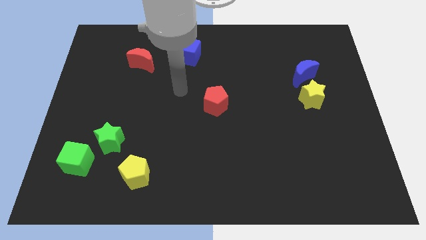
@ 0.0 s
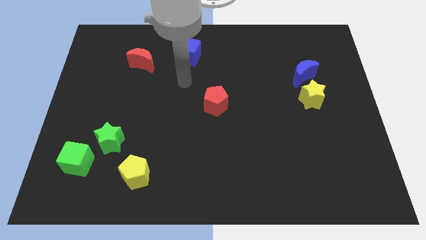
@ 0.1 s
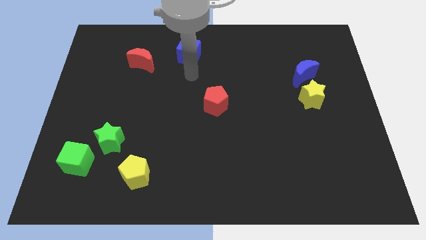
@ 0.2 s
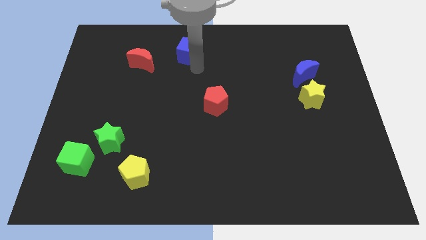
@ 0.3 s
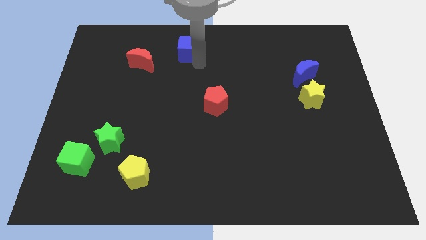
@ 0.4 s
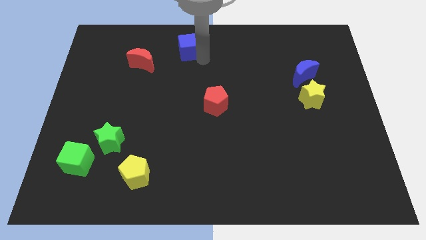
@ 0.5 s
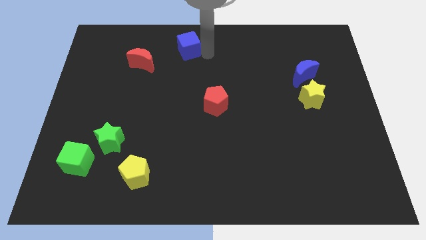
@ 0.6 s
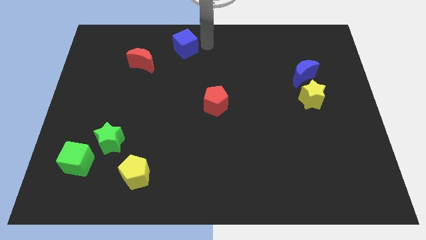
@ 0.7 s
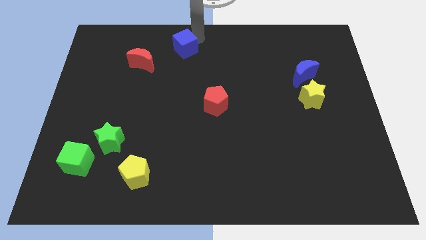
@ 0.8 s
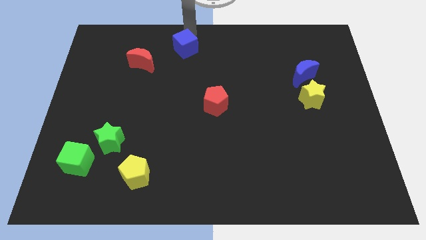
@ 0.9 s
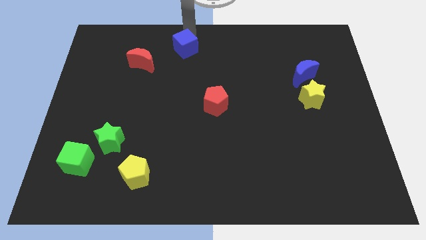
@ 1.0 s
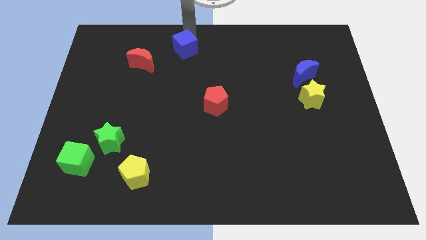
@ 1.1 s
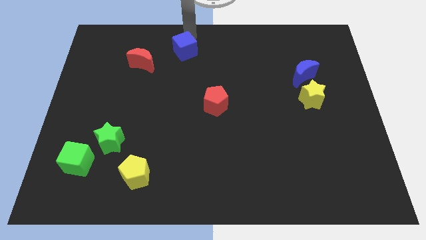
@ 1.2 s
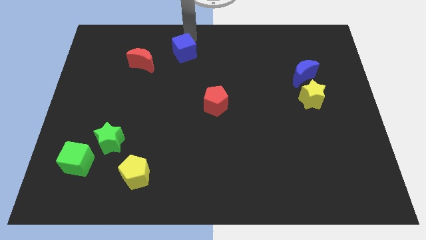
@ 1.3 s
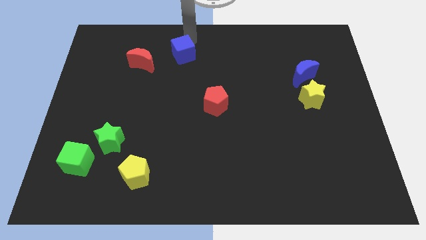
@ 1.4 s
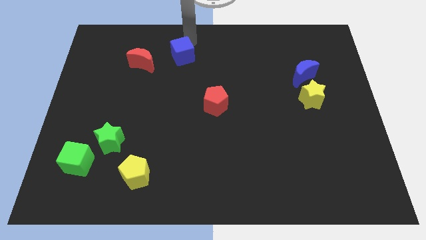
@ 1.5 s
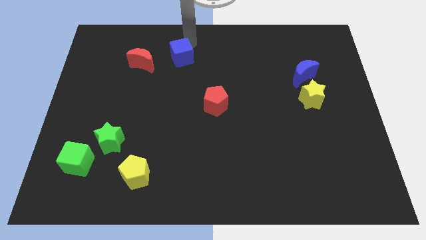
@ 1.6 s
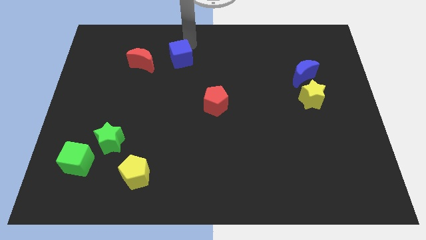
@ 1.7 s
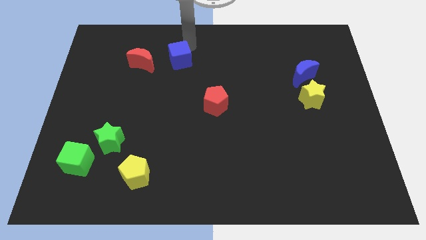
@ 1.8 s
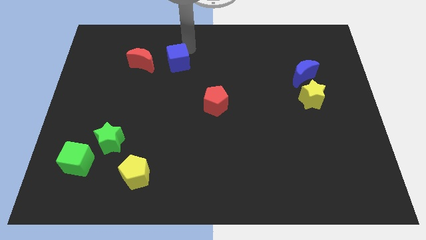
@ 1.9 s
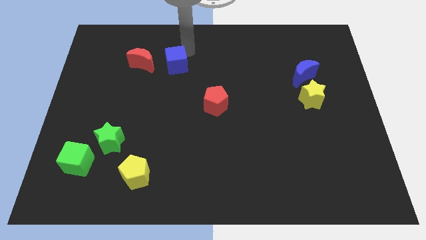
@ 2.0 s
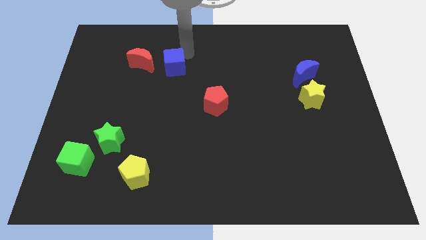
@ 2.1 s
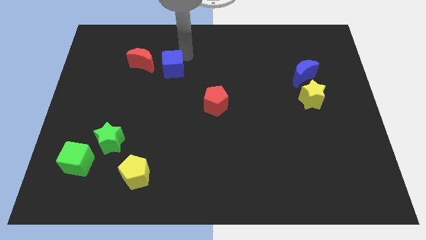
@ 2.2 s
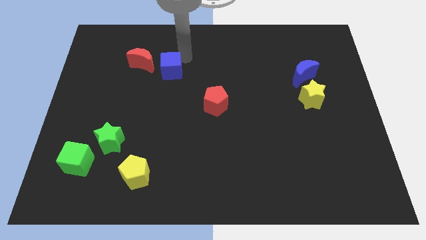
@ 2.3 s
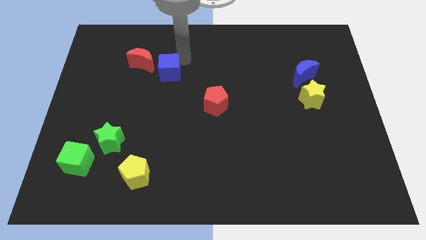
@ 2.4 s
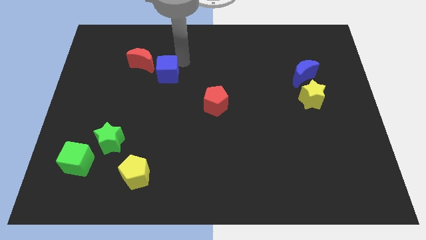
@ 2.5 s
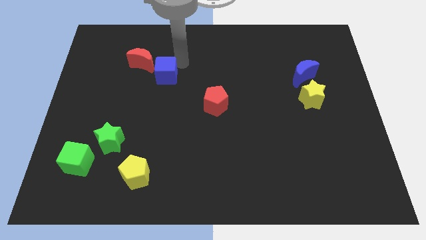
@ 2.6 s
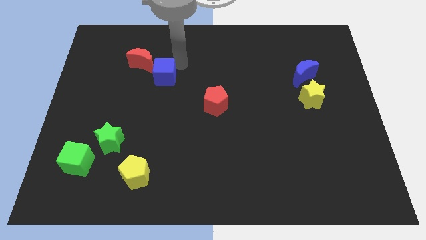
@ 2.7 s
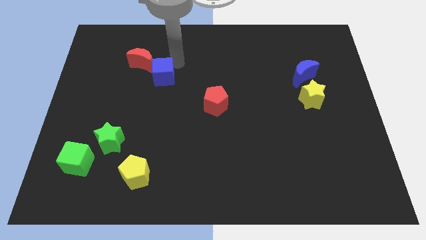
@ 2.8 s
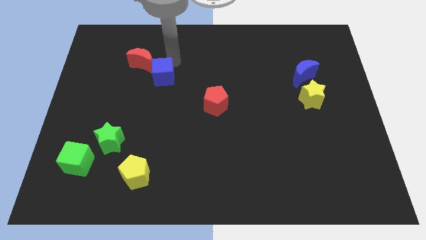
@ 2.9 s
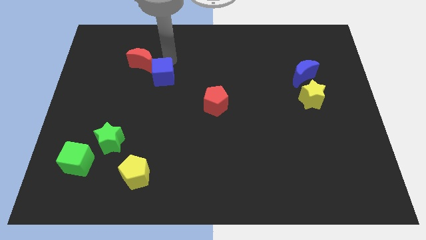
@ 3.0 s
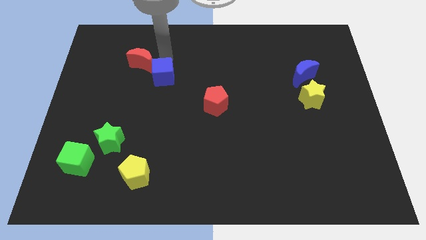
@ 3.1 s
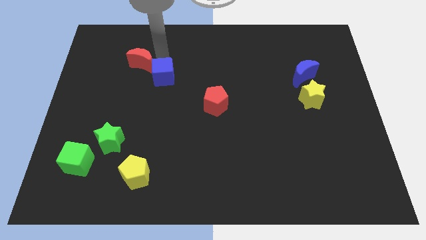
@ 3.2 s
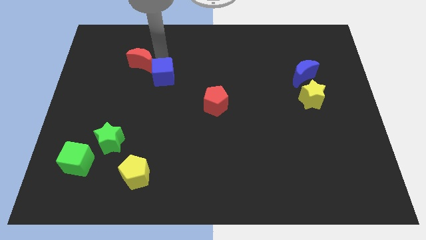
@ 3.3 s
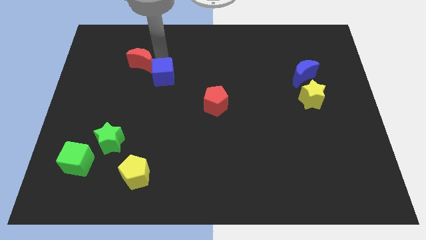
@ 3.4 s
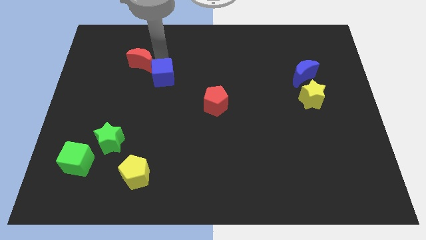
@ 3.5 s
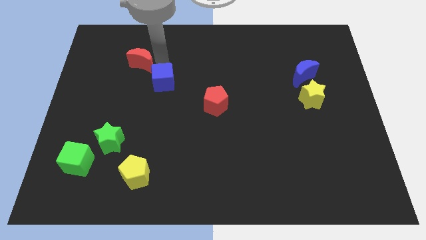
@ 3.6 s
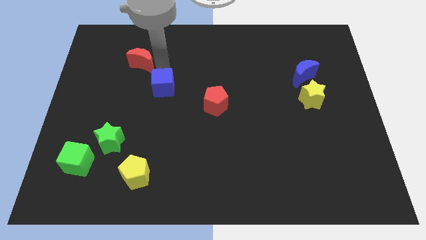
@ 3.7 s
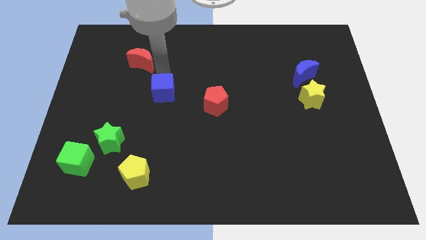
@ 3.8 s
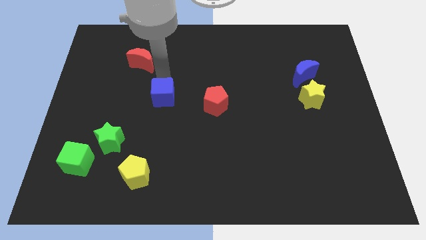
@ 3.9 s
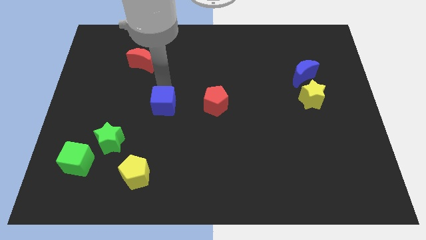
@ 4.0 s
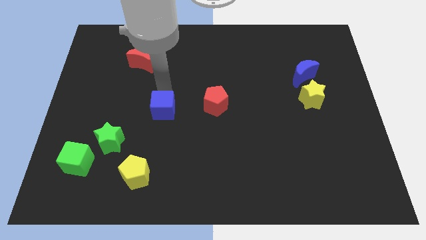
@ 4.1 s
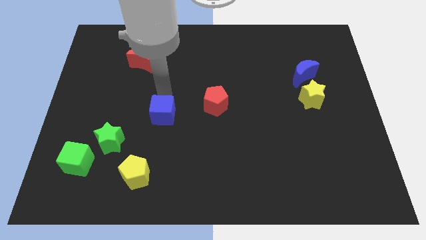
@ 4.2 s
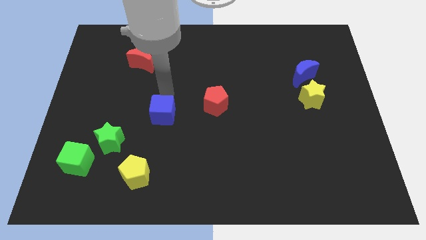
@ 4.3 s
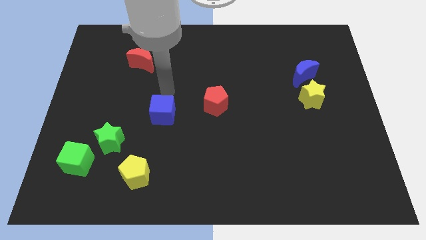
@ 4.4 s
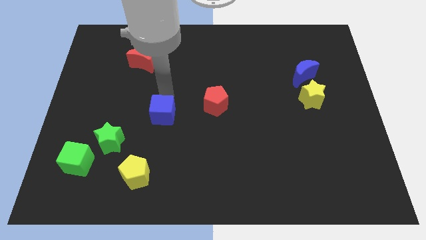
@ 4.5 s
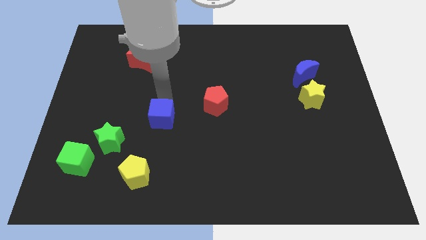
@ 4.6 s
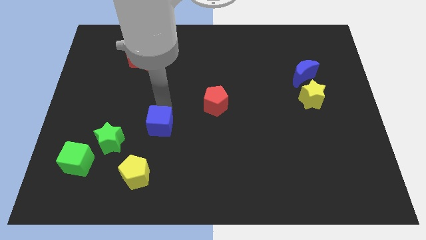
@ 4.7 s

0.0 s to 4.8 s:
slide the blue cube right of the green star

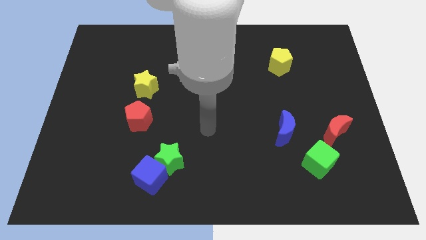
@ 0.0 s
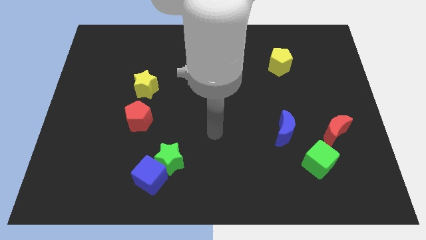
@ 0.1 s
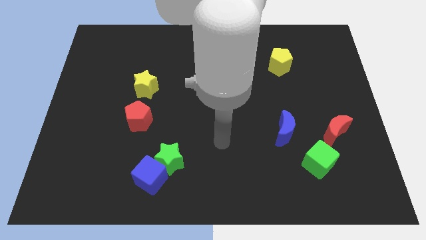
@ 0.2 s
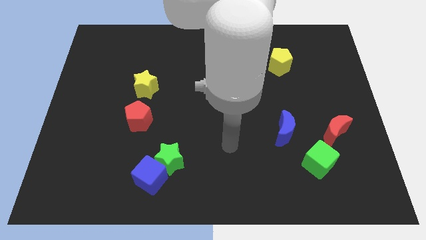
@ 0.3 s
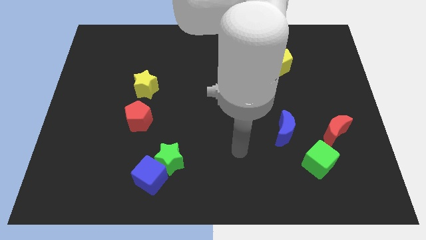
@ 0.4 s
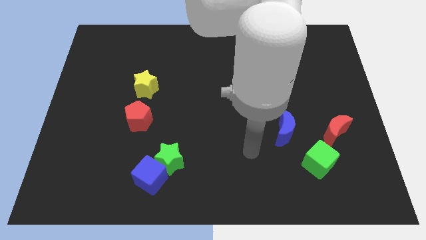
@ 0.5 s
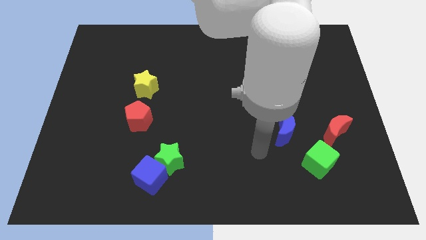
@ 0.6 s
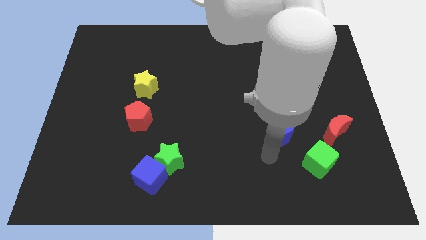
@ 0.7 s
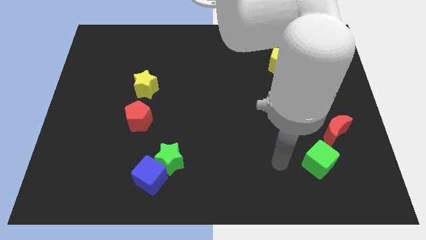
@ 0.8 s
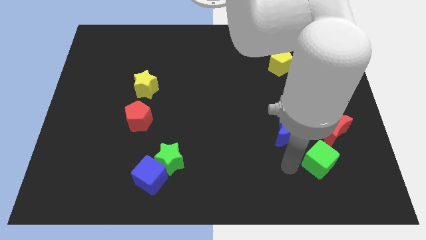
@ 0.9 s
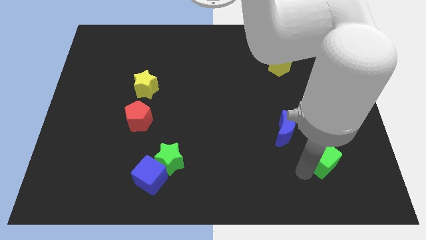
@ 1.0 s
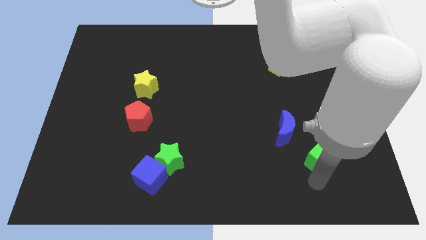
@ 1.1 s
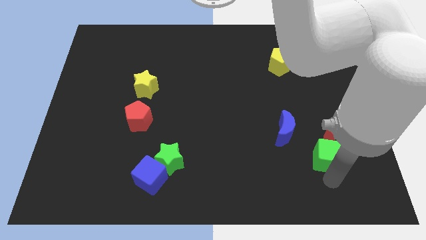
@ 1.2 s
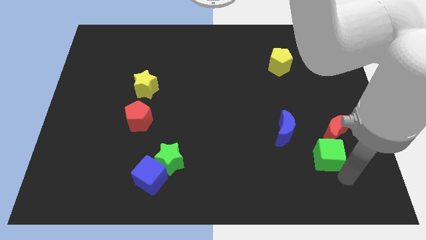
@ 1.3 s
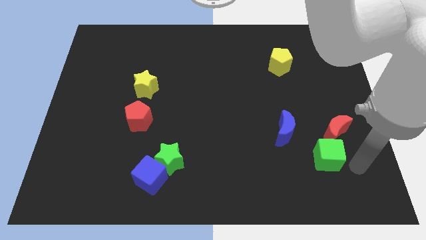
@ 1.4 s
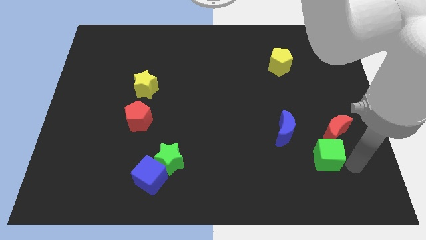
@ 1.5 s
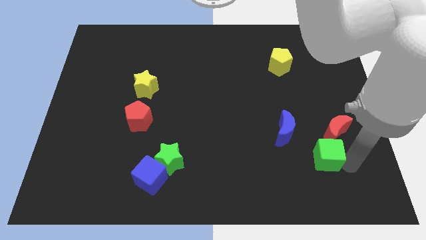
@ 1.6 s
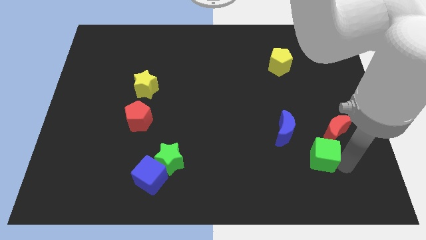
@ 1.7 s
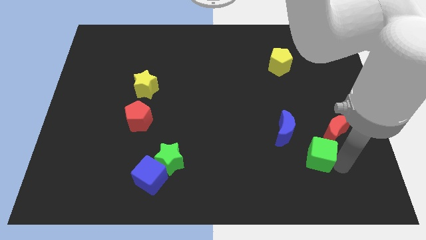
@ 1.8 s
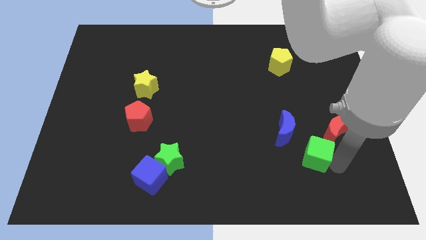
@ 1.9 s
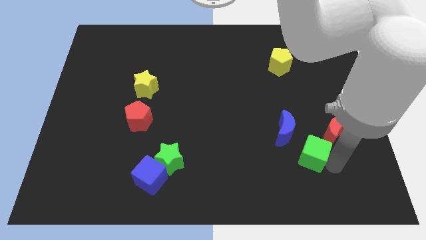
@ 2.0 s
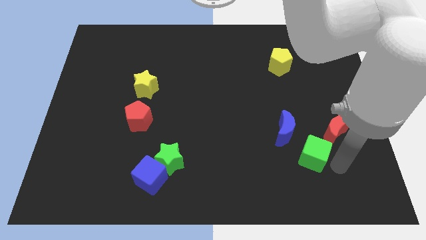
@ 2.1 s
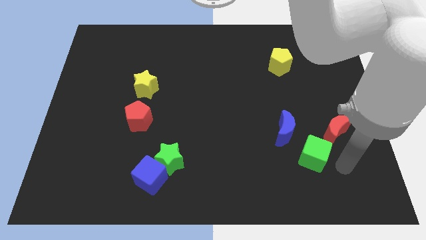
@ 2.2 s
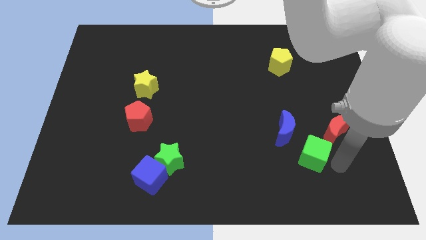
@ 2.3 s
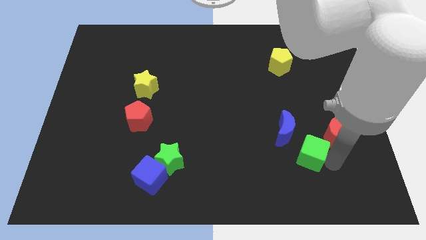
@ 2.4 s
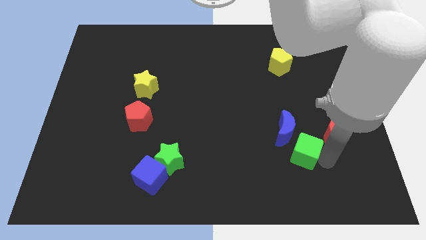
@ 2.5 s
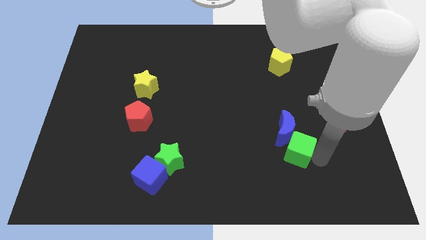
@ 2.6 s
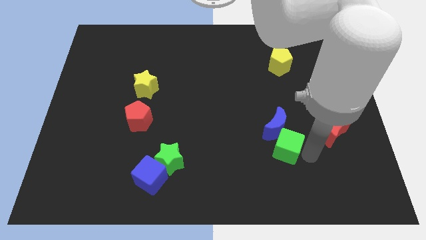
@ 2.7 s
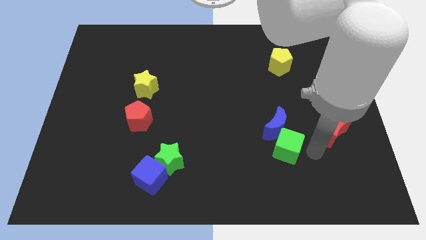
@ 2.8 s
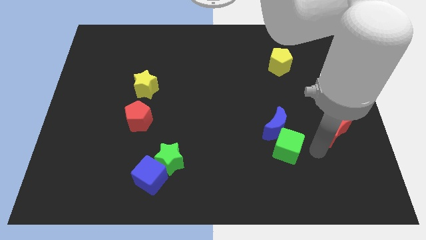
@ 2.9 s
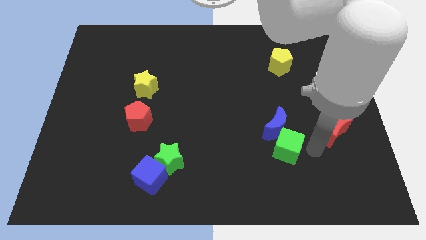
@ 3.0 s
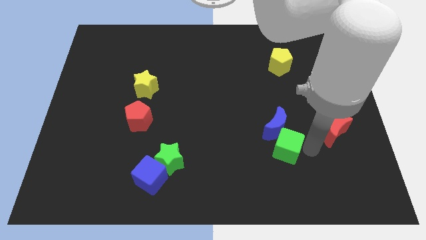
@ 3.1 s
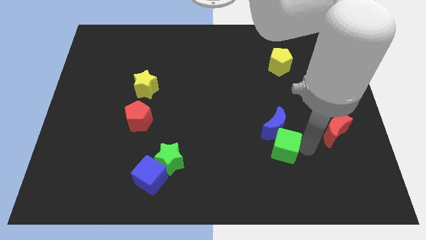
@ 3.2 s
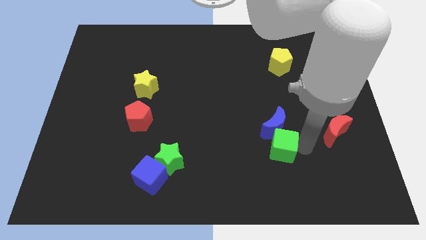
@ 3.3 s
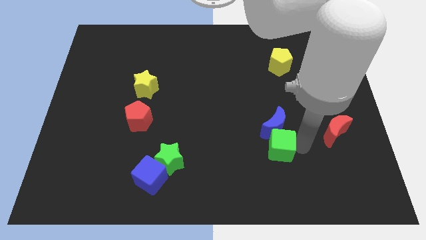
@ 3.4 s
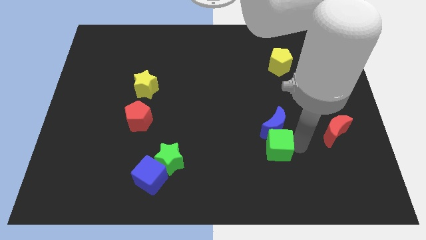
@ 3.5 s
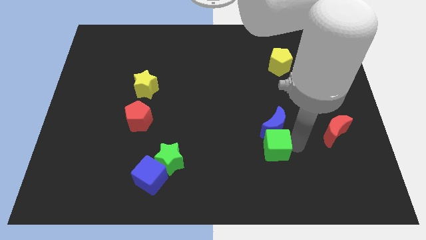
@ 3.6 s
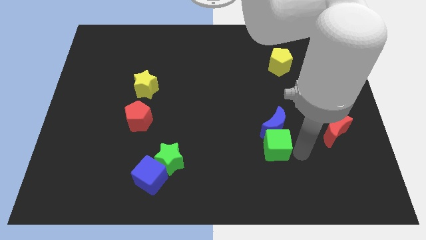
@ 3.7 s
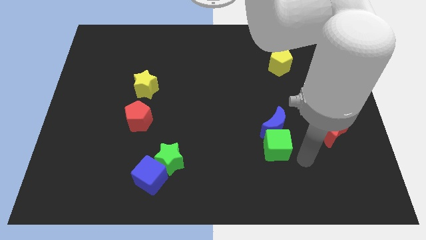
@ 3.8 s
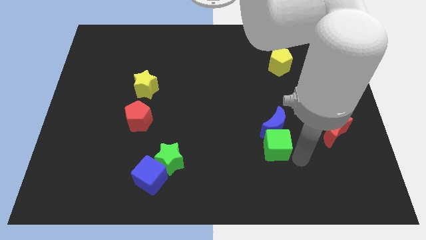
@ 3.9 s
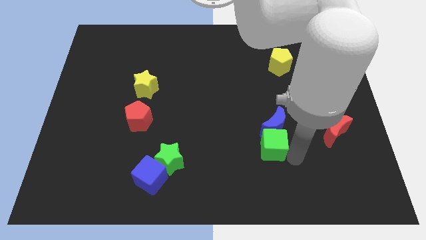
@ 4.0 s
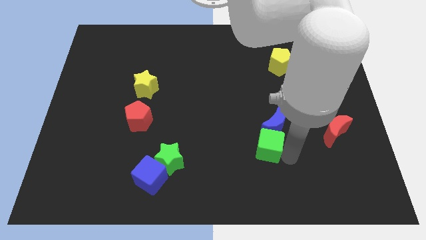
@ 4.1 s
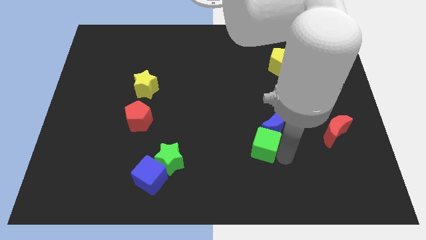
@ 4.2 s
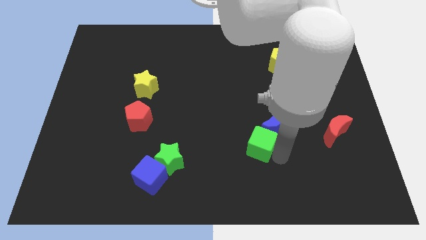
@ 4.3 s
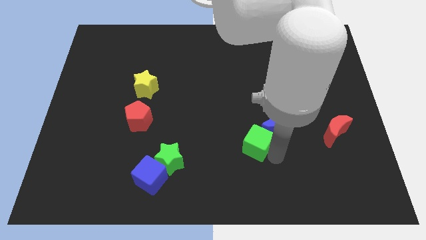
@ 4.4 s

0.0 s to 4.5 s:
push the green cube left of the blue moon
